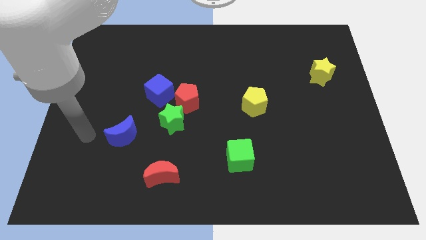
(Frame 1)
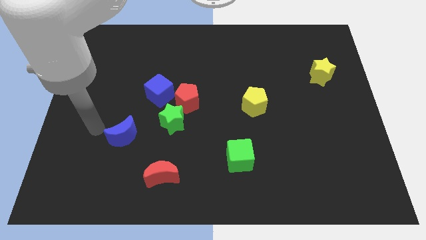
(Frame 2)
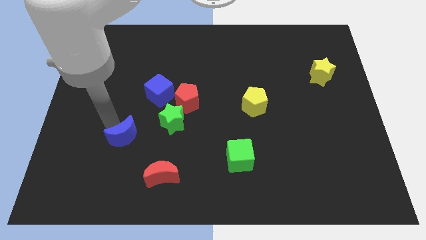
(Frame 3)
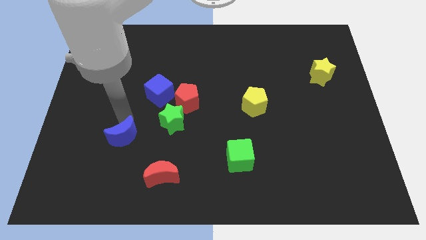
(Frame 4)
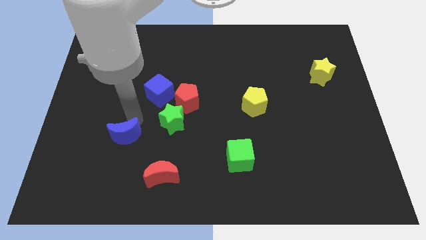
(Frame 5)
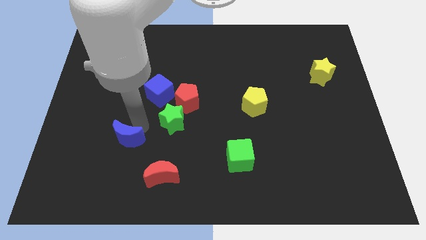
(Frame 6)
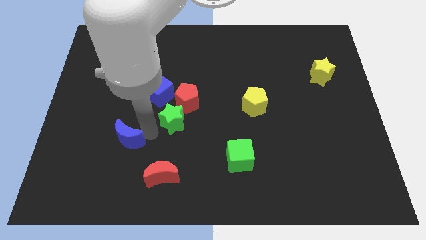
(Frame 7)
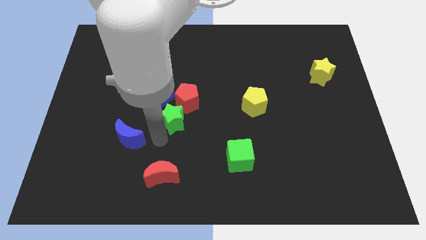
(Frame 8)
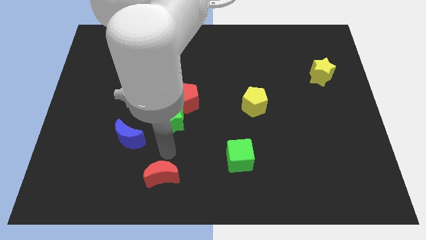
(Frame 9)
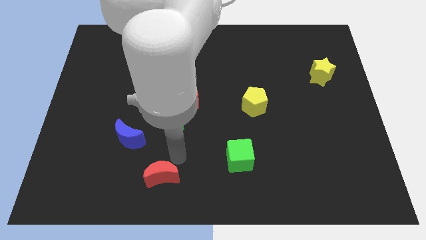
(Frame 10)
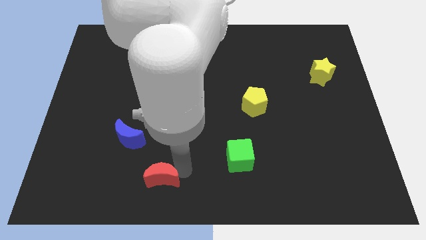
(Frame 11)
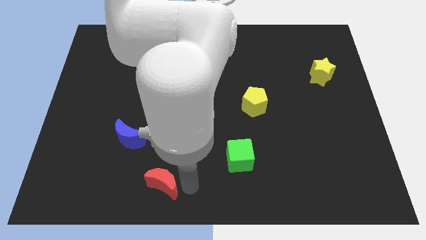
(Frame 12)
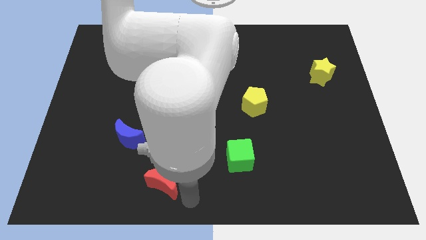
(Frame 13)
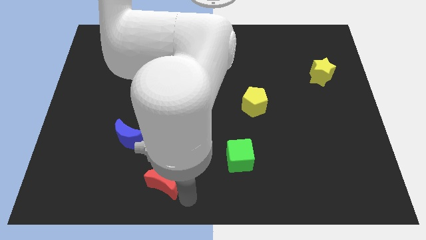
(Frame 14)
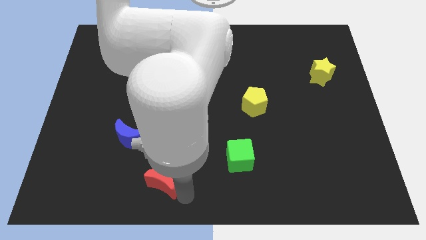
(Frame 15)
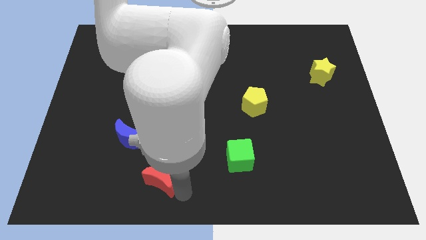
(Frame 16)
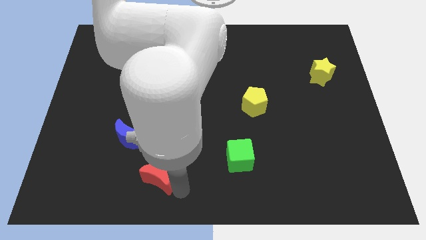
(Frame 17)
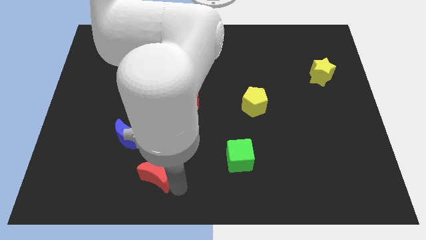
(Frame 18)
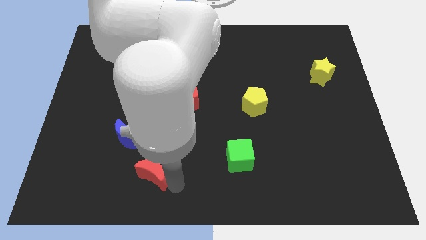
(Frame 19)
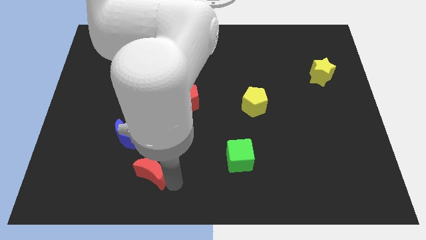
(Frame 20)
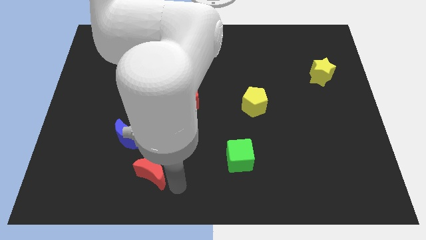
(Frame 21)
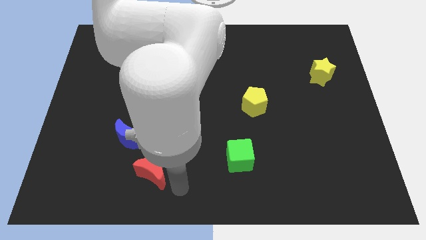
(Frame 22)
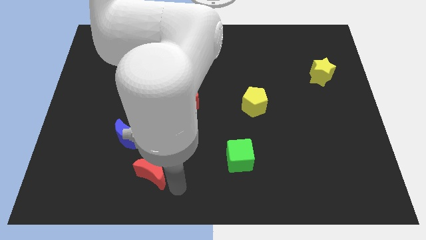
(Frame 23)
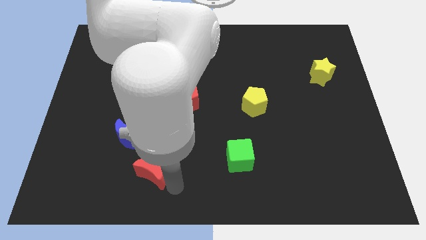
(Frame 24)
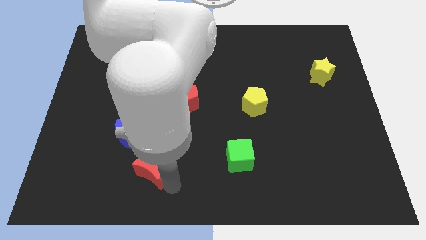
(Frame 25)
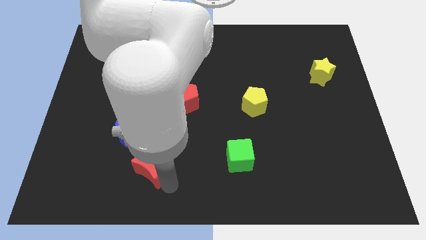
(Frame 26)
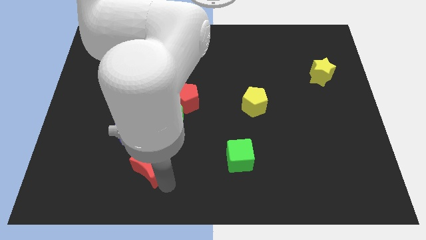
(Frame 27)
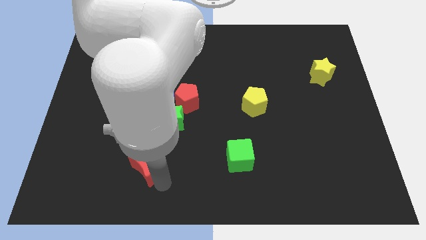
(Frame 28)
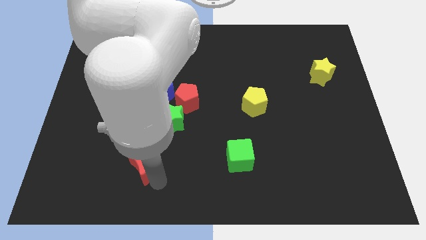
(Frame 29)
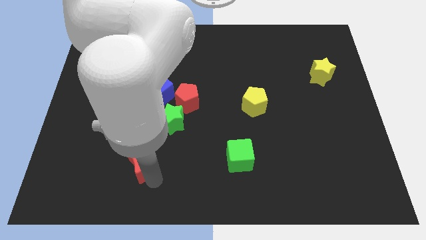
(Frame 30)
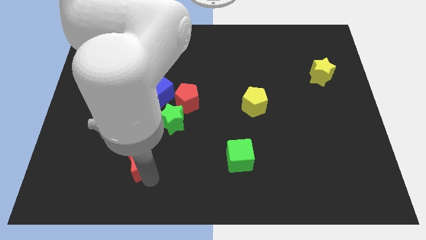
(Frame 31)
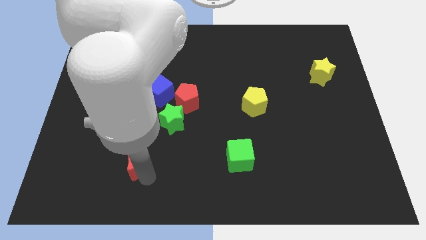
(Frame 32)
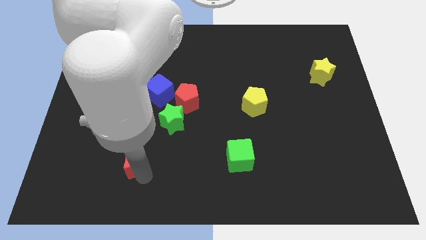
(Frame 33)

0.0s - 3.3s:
move the red moon upwards and left diagonally a little bit

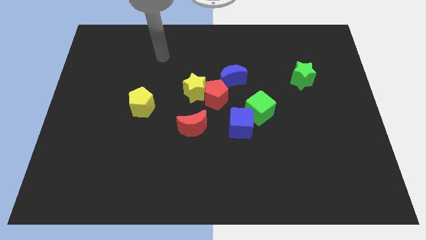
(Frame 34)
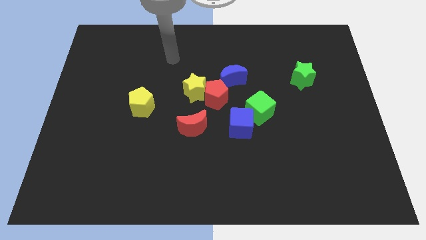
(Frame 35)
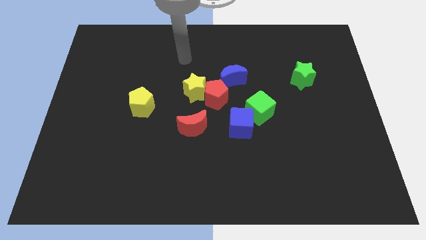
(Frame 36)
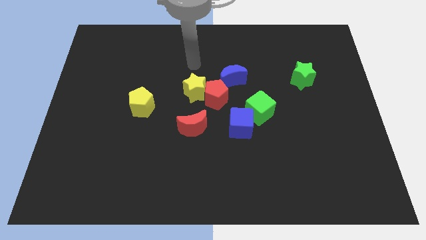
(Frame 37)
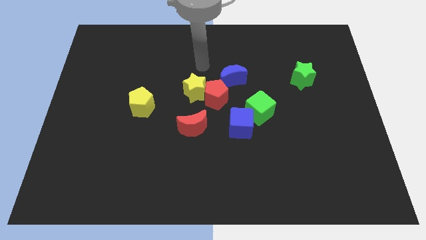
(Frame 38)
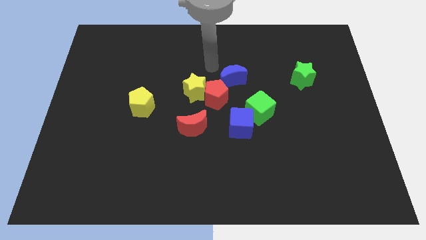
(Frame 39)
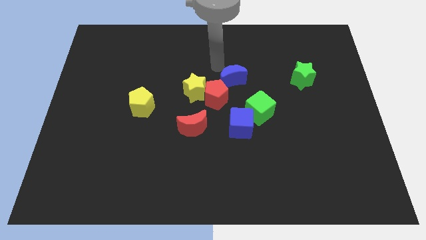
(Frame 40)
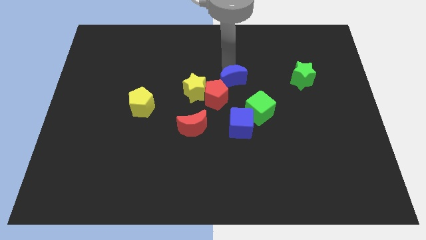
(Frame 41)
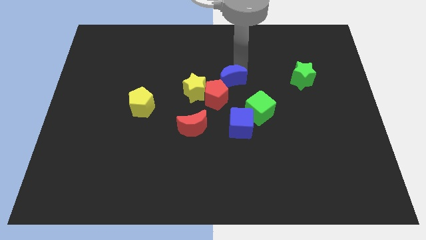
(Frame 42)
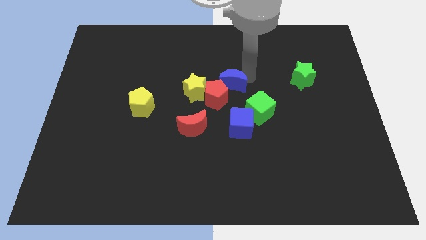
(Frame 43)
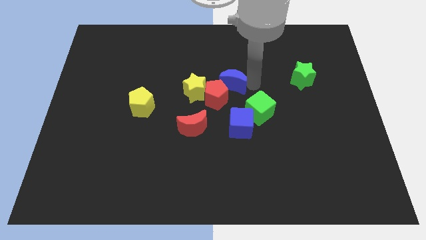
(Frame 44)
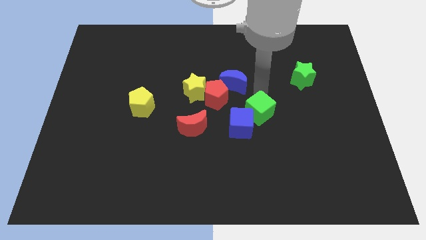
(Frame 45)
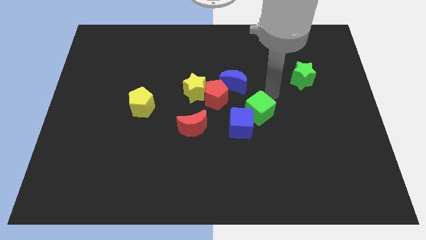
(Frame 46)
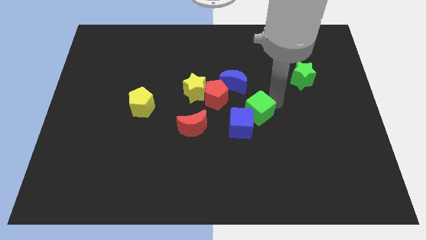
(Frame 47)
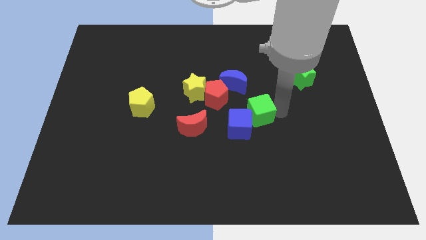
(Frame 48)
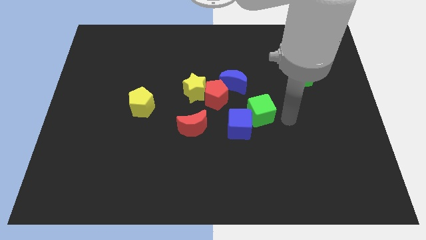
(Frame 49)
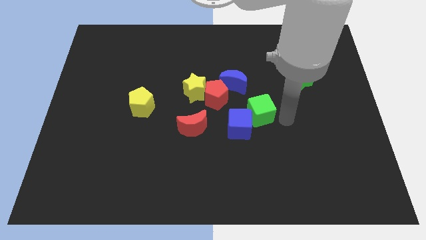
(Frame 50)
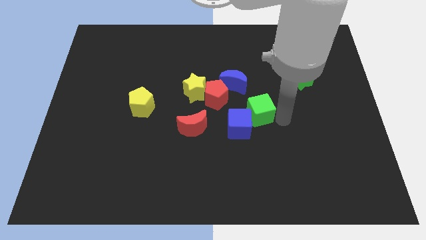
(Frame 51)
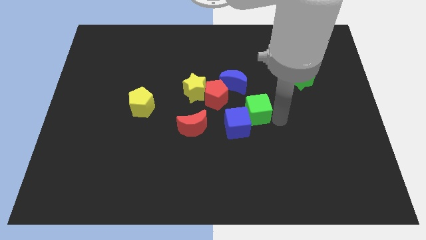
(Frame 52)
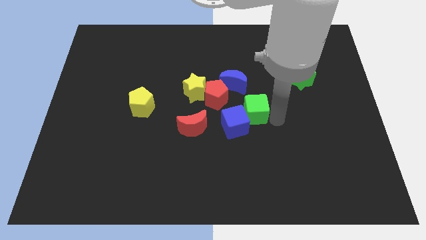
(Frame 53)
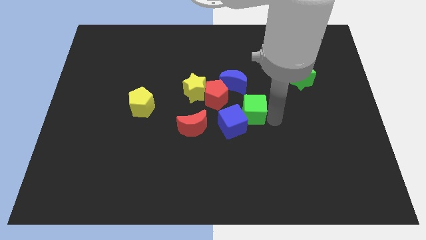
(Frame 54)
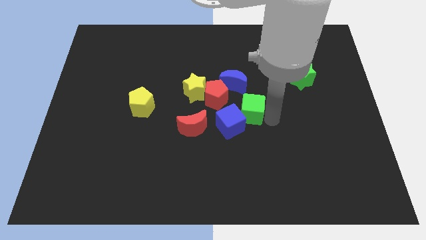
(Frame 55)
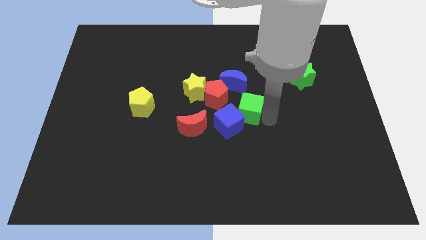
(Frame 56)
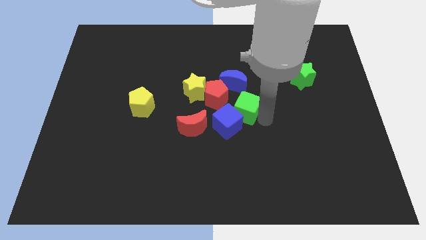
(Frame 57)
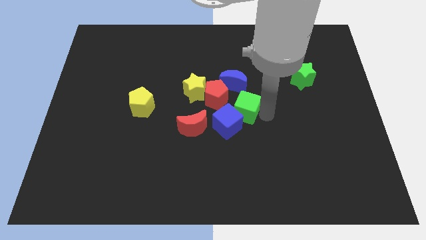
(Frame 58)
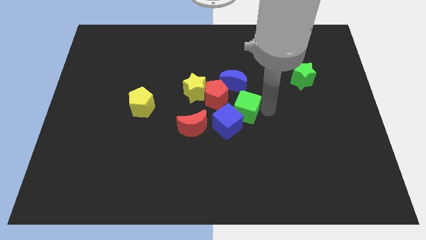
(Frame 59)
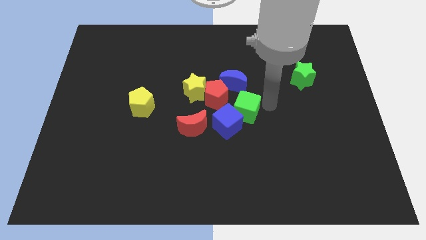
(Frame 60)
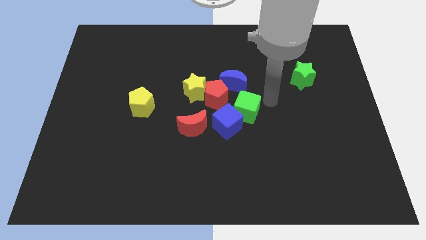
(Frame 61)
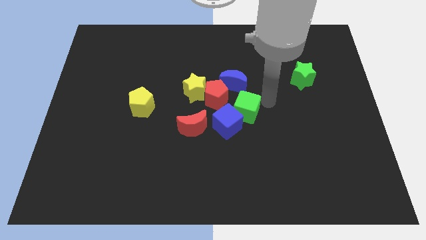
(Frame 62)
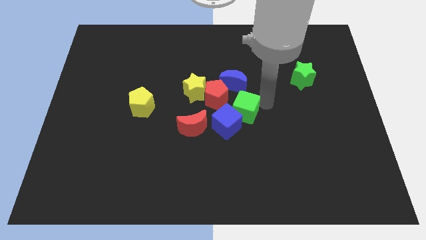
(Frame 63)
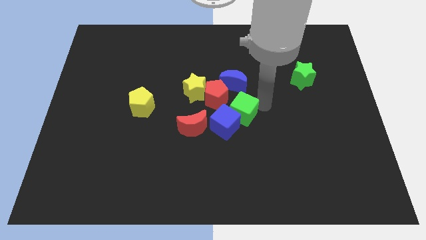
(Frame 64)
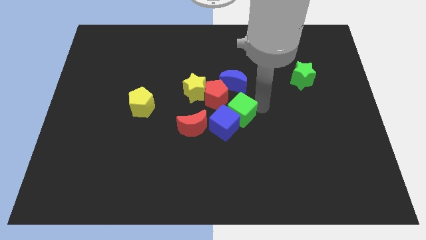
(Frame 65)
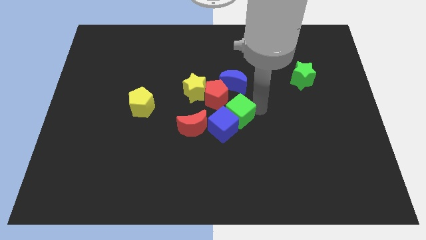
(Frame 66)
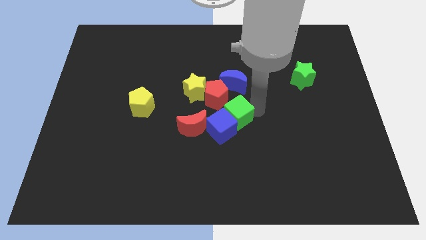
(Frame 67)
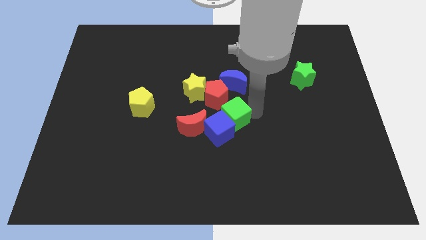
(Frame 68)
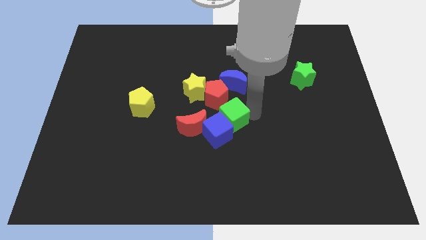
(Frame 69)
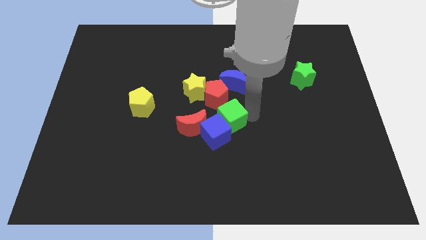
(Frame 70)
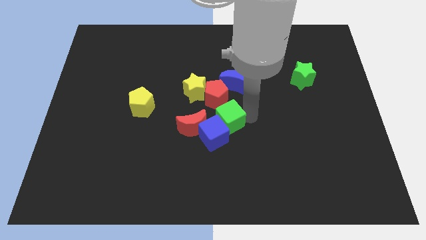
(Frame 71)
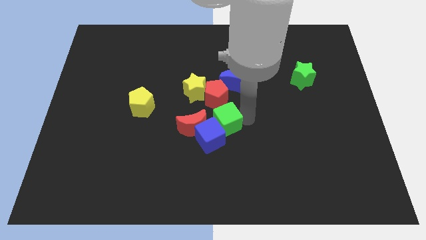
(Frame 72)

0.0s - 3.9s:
slide the green cube diagonally downwards and to the left a little bit

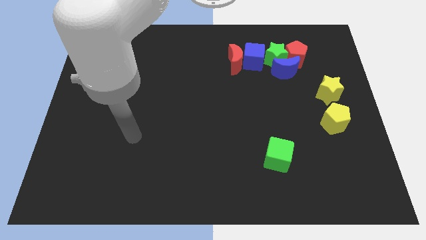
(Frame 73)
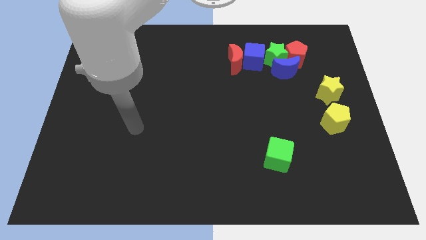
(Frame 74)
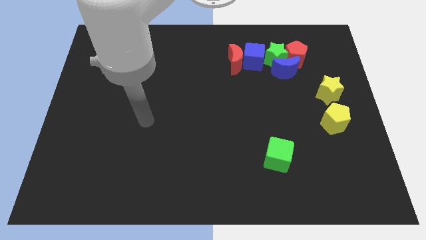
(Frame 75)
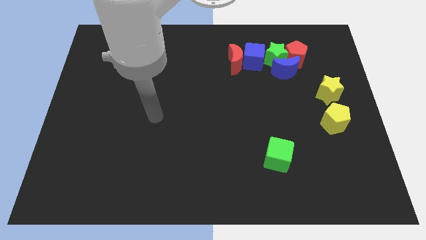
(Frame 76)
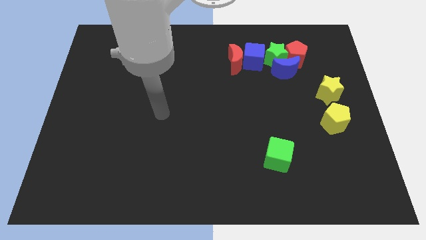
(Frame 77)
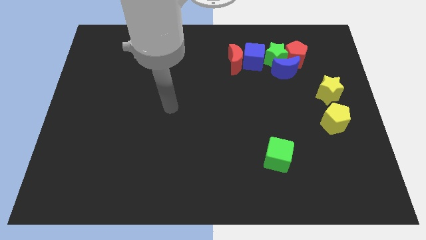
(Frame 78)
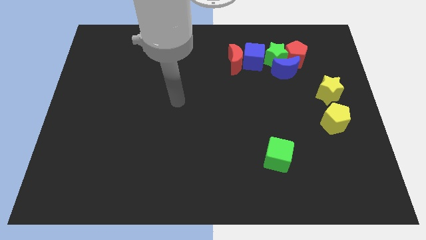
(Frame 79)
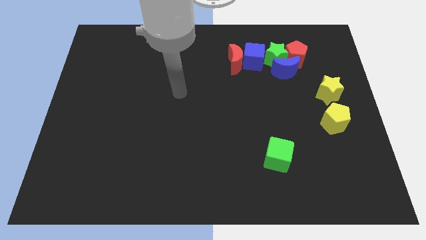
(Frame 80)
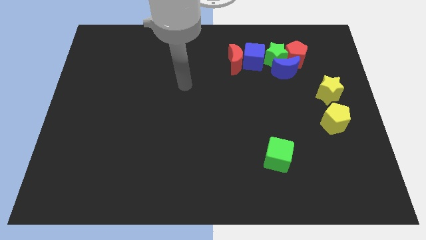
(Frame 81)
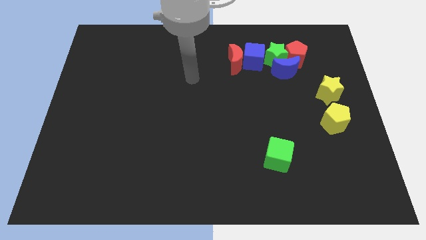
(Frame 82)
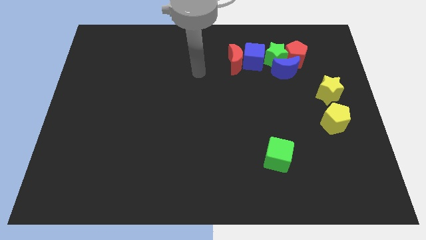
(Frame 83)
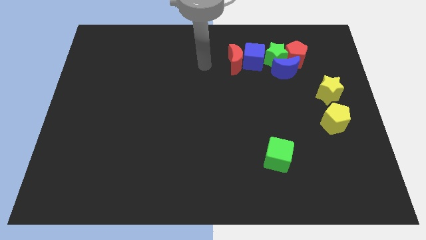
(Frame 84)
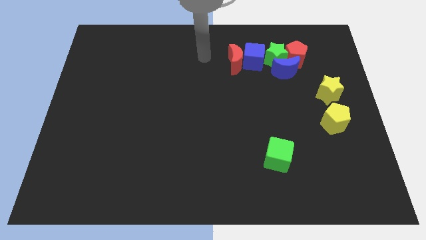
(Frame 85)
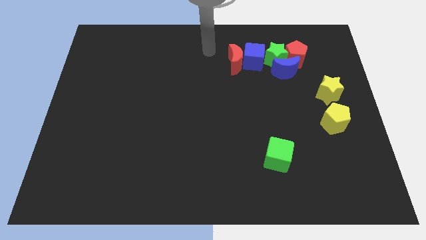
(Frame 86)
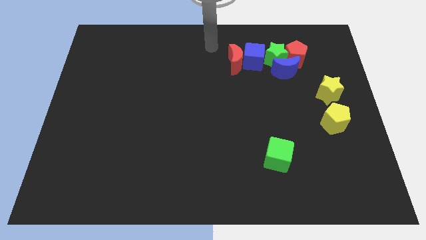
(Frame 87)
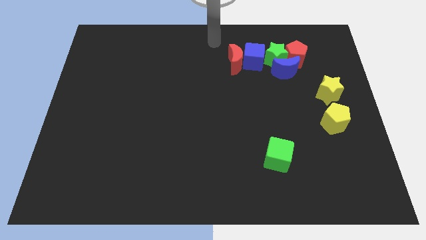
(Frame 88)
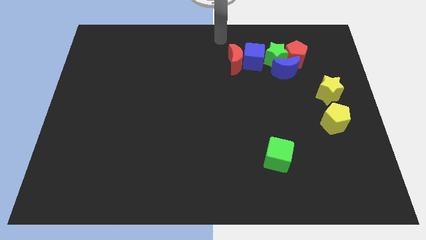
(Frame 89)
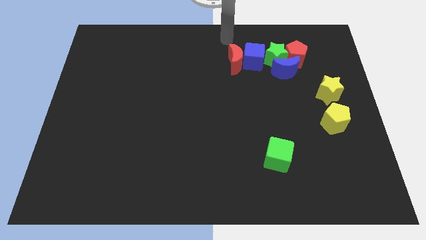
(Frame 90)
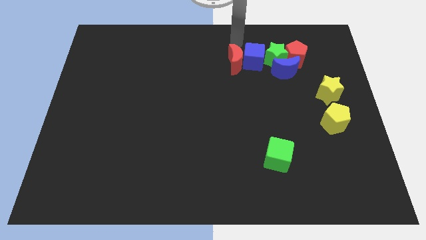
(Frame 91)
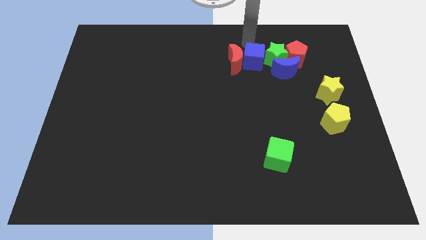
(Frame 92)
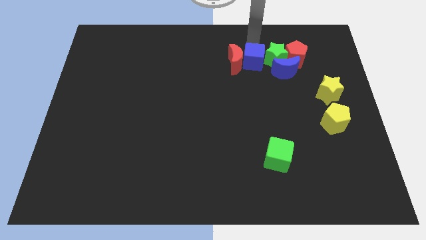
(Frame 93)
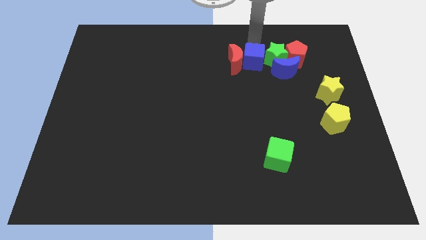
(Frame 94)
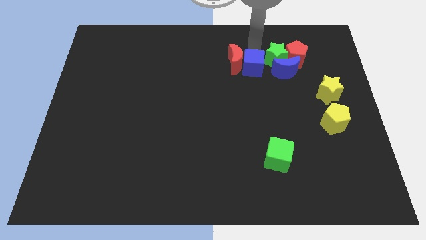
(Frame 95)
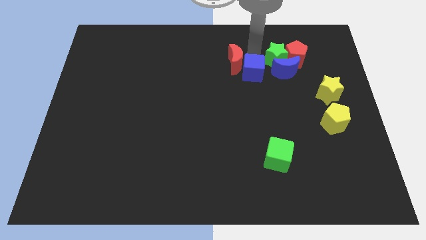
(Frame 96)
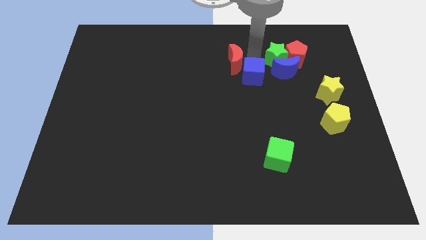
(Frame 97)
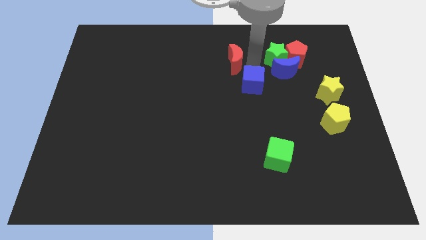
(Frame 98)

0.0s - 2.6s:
slightly push the blue cube down
